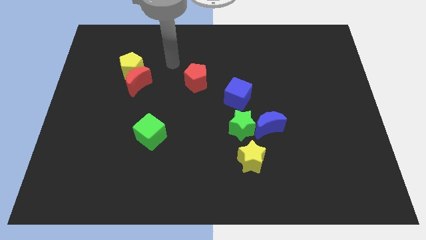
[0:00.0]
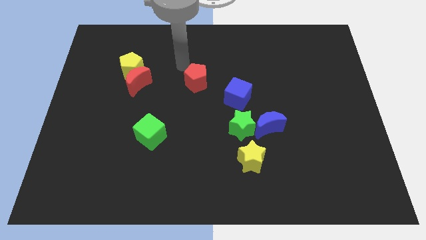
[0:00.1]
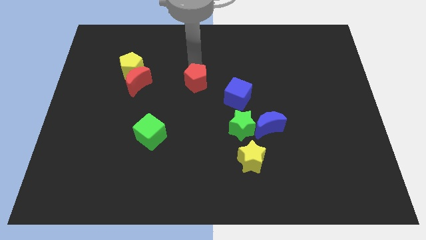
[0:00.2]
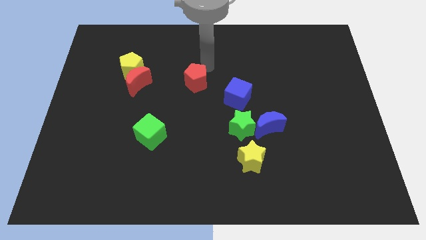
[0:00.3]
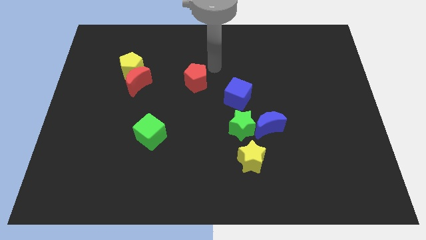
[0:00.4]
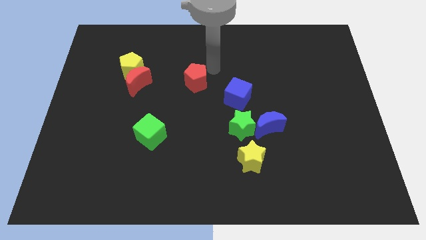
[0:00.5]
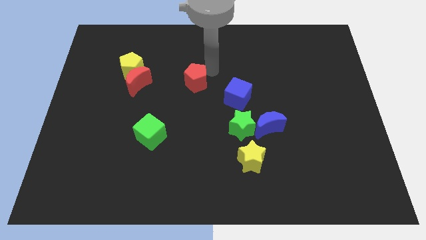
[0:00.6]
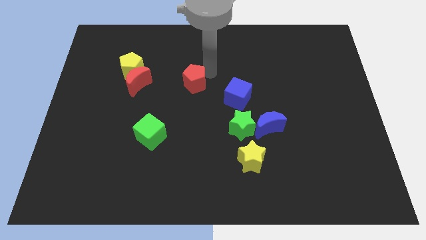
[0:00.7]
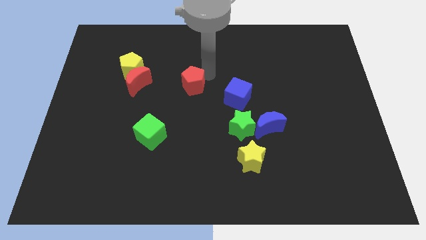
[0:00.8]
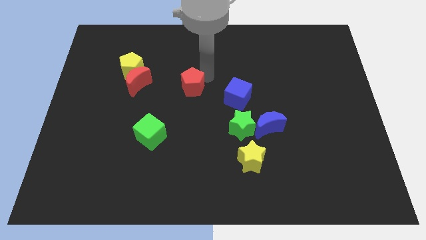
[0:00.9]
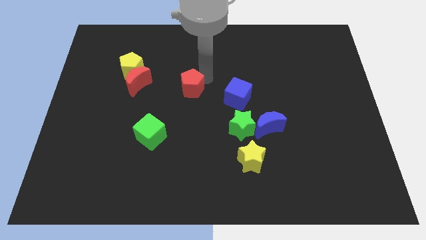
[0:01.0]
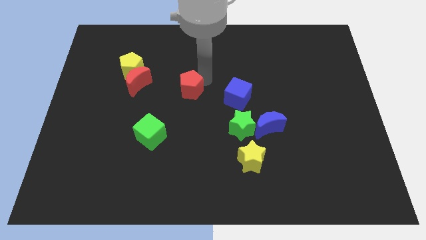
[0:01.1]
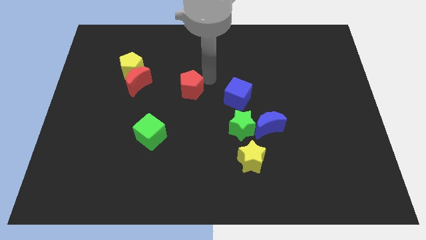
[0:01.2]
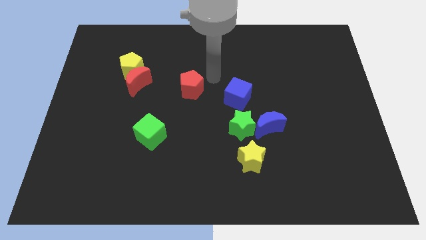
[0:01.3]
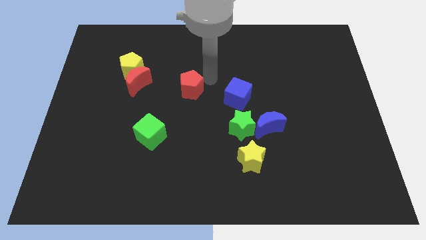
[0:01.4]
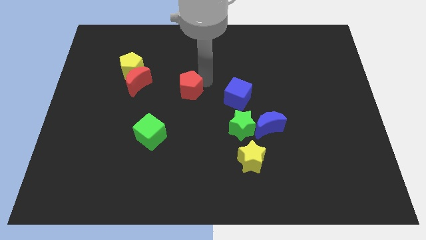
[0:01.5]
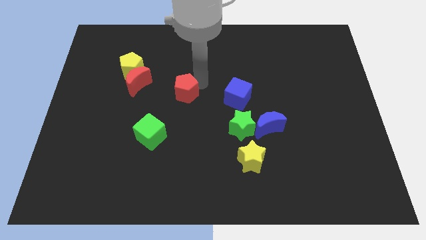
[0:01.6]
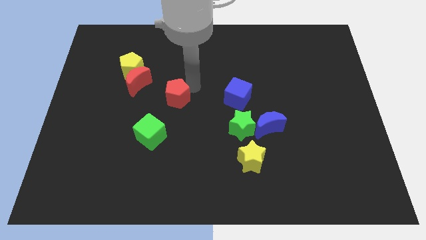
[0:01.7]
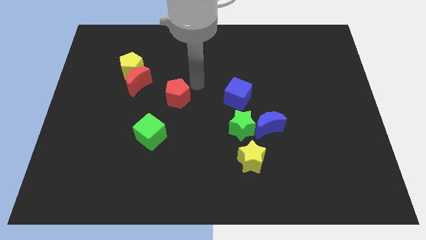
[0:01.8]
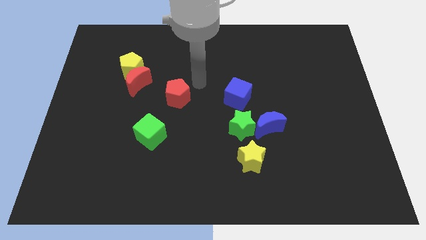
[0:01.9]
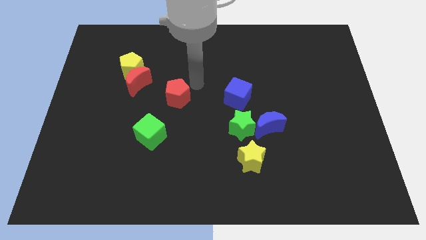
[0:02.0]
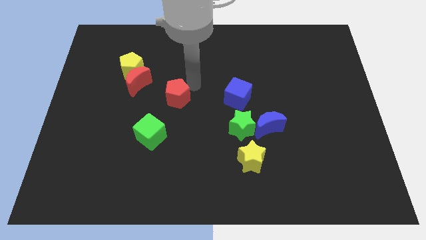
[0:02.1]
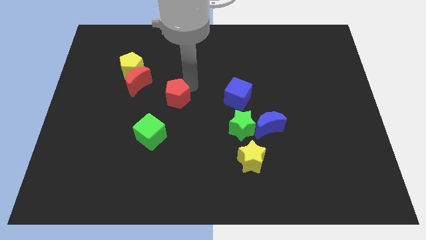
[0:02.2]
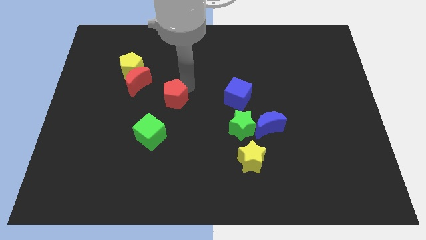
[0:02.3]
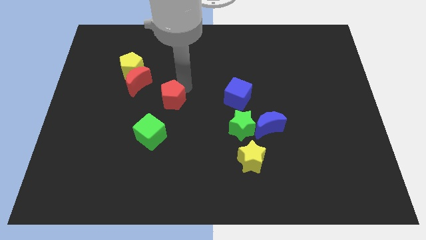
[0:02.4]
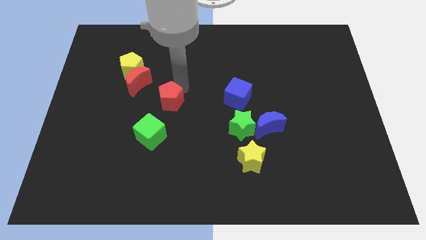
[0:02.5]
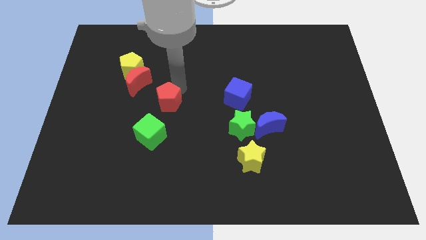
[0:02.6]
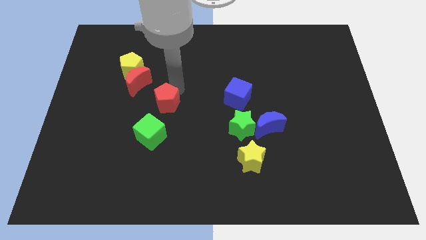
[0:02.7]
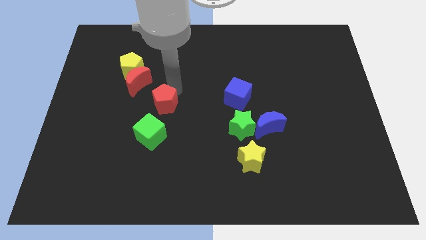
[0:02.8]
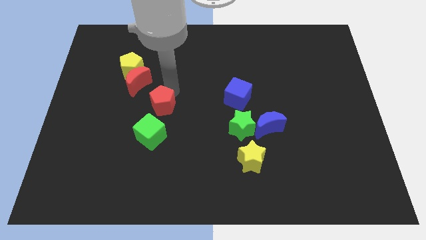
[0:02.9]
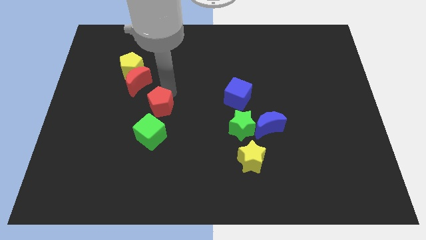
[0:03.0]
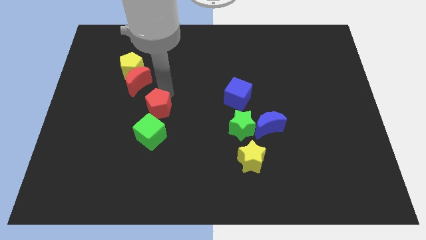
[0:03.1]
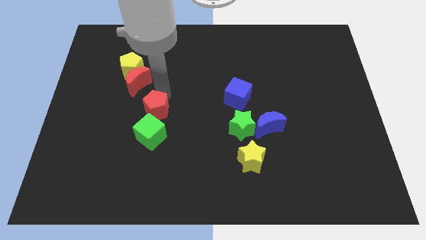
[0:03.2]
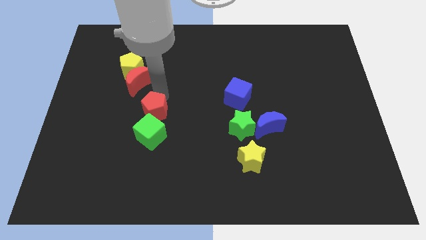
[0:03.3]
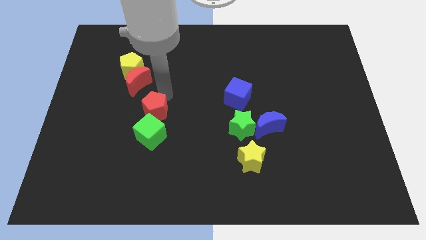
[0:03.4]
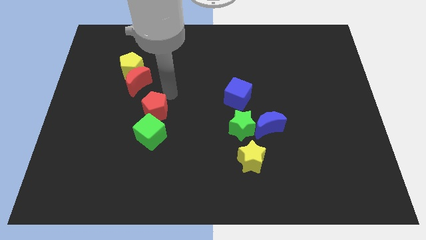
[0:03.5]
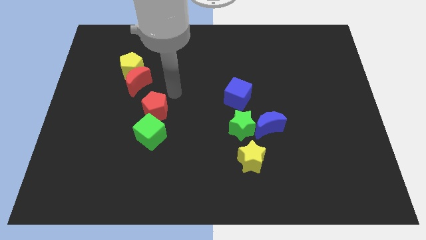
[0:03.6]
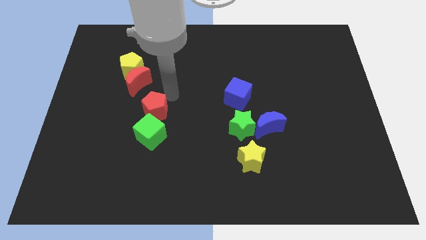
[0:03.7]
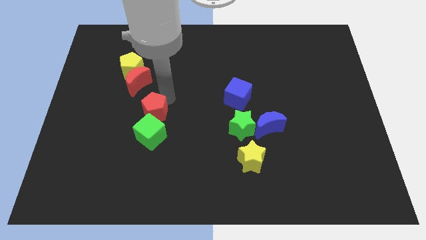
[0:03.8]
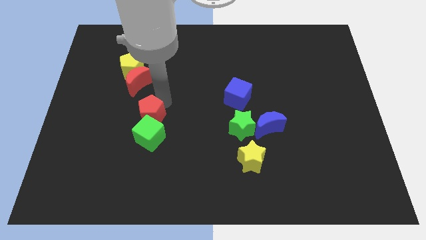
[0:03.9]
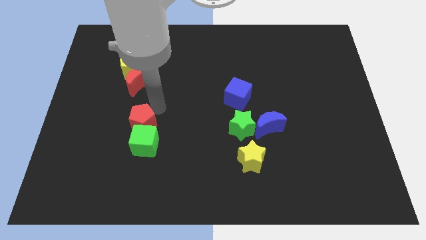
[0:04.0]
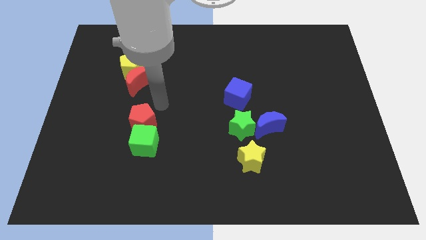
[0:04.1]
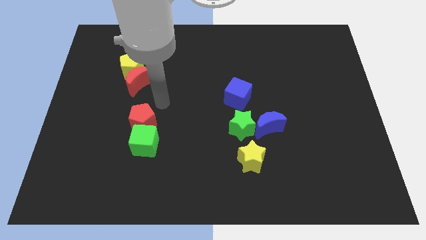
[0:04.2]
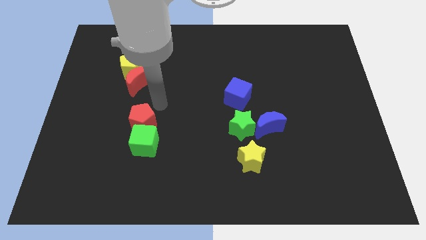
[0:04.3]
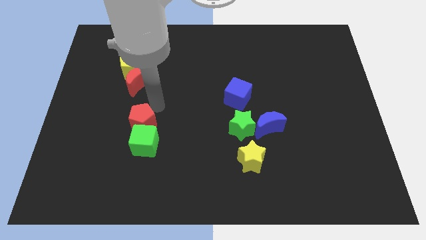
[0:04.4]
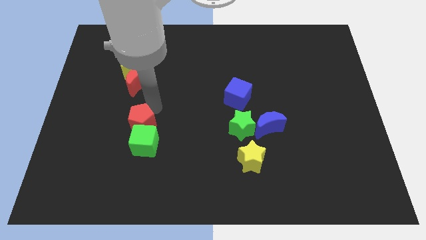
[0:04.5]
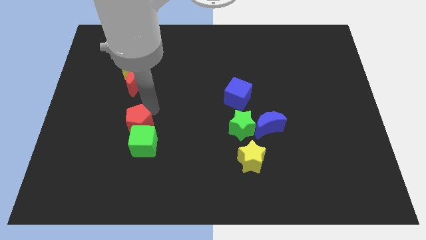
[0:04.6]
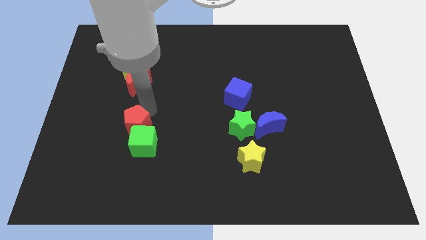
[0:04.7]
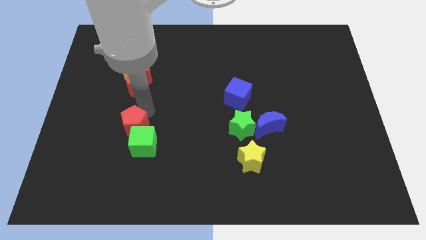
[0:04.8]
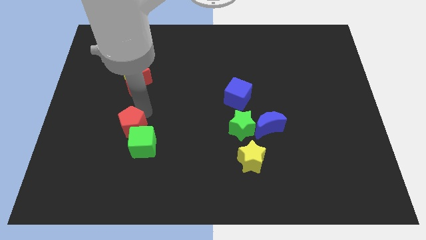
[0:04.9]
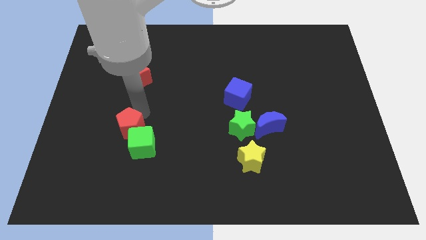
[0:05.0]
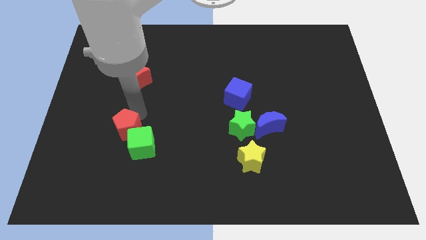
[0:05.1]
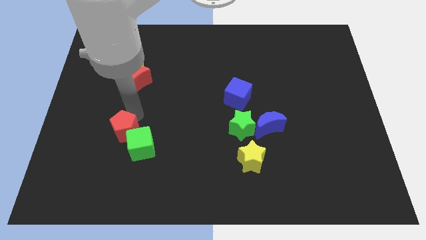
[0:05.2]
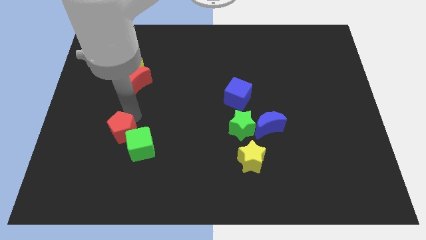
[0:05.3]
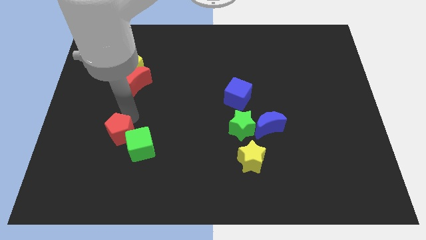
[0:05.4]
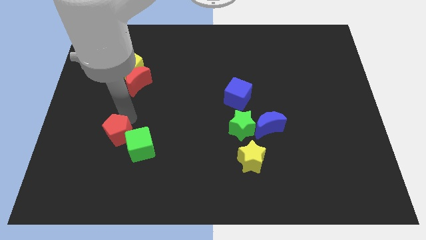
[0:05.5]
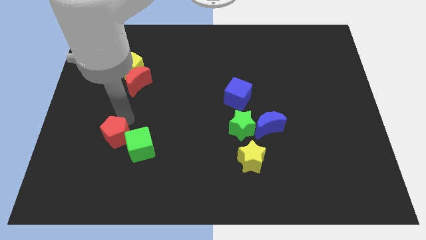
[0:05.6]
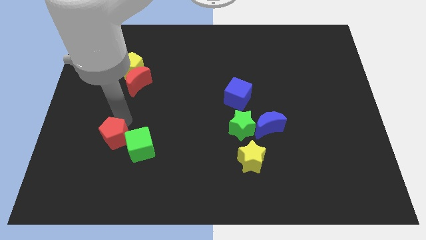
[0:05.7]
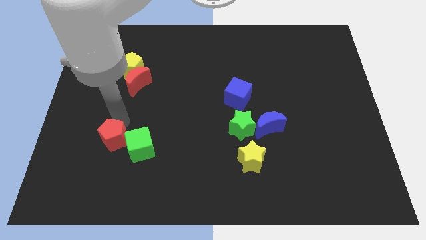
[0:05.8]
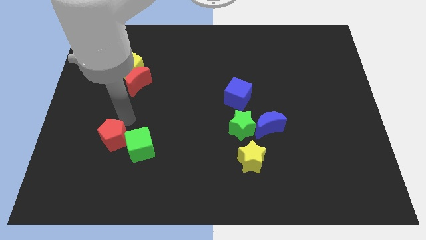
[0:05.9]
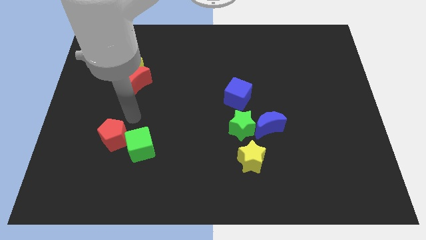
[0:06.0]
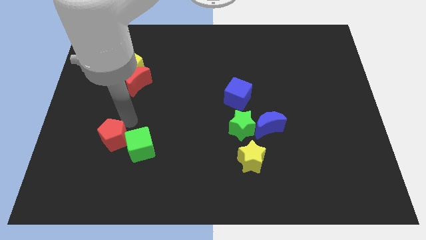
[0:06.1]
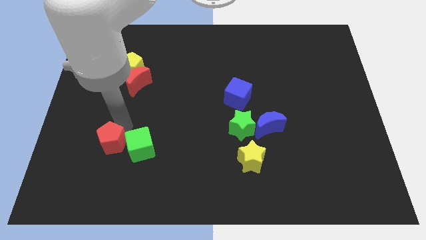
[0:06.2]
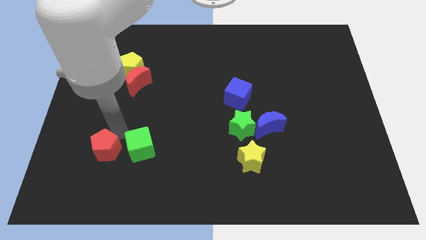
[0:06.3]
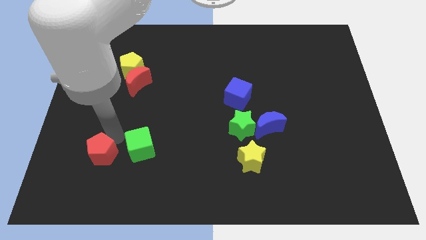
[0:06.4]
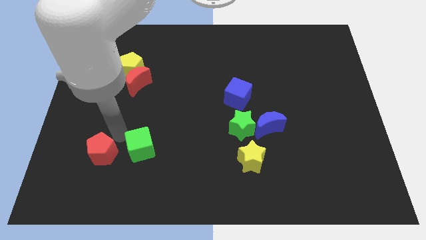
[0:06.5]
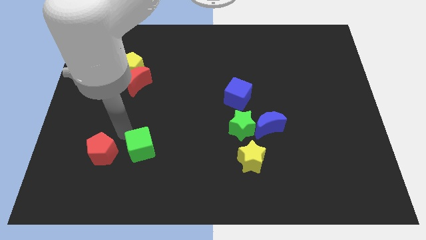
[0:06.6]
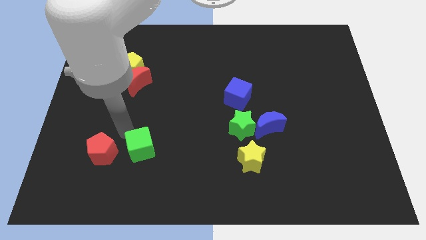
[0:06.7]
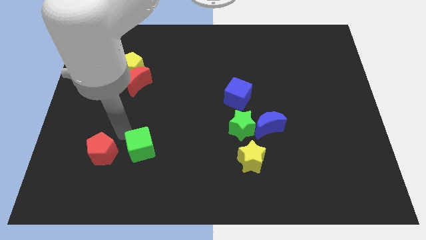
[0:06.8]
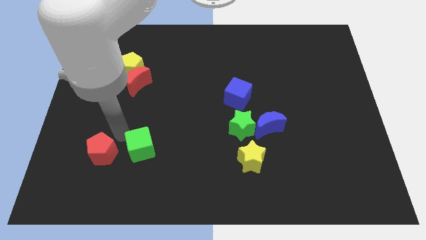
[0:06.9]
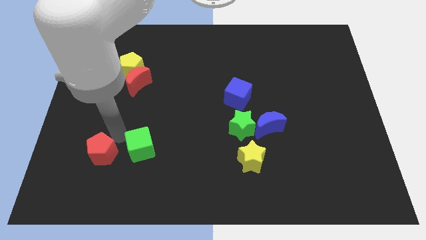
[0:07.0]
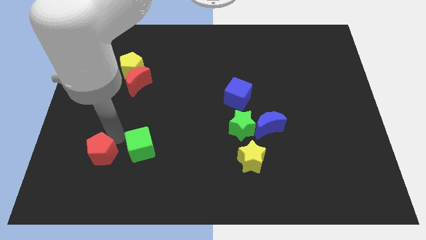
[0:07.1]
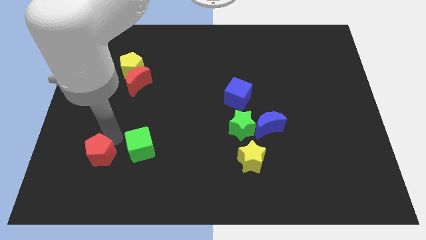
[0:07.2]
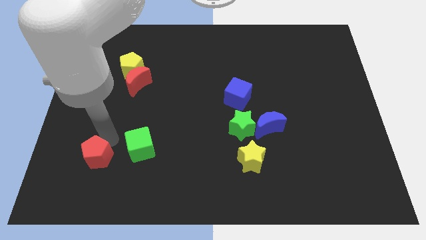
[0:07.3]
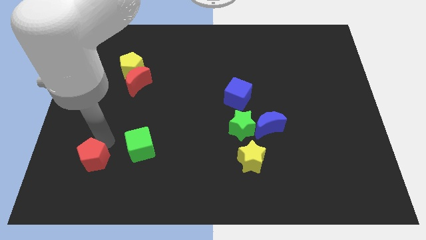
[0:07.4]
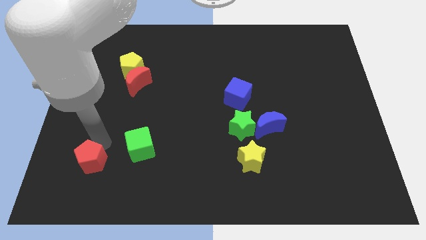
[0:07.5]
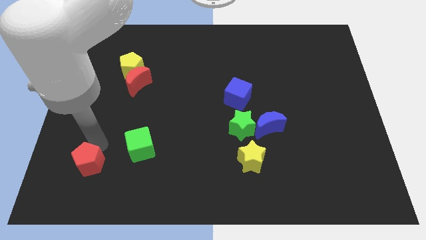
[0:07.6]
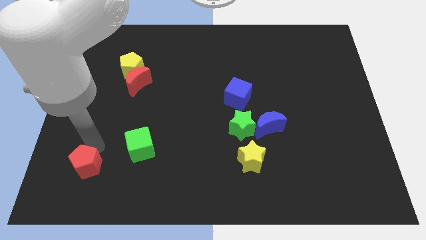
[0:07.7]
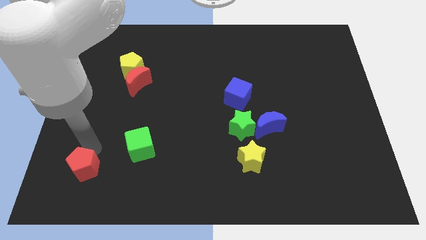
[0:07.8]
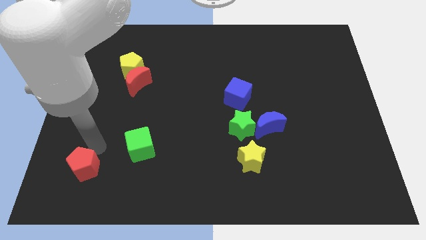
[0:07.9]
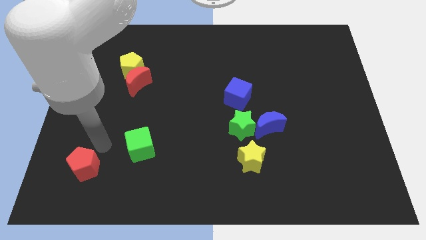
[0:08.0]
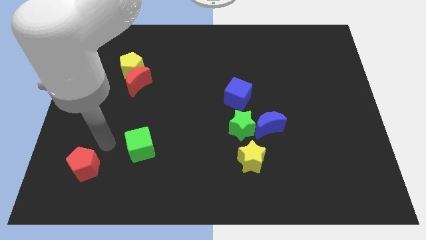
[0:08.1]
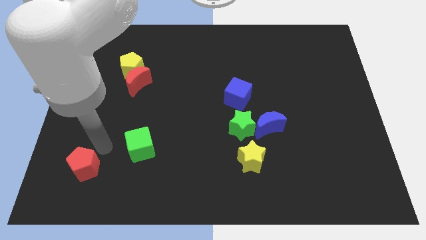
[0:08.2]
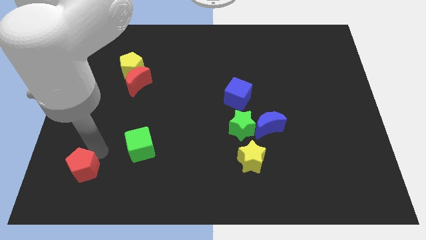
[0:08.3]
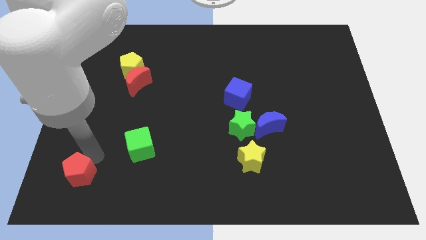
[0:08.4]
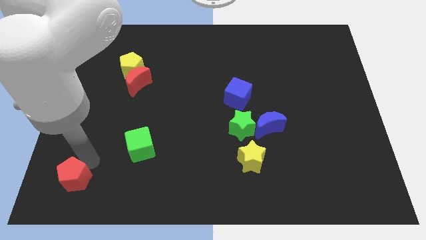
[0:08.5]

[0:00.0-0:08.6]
slide the red pentagon to the bottom left corner
